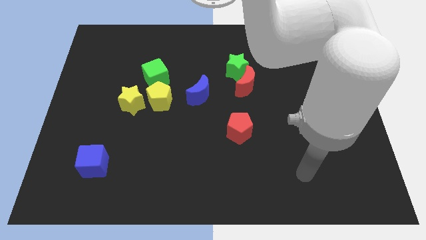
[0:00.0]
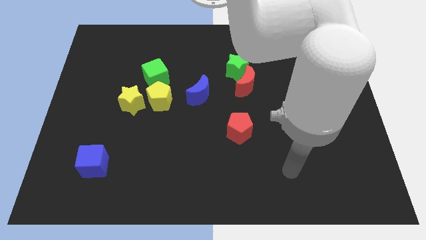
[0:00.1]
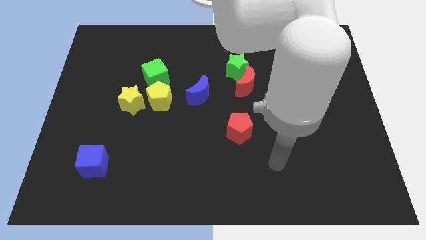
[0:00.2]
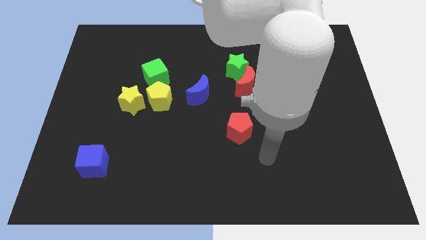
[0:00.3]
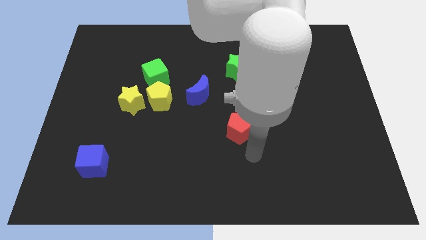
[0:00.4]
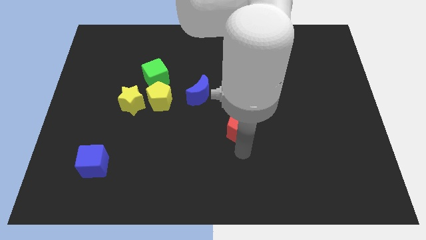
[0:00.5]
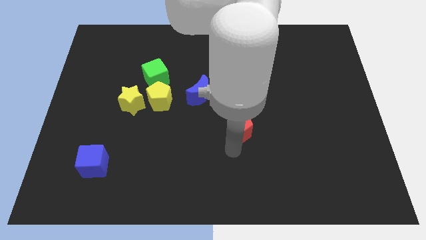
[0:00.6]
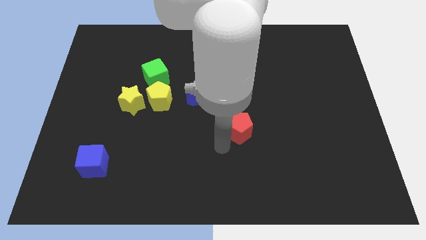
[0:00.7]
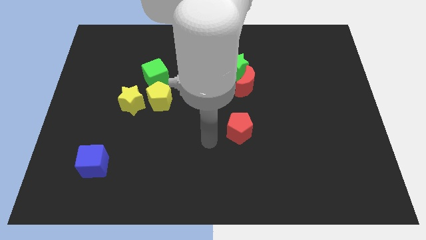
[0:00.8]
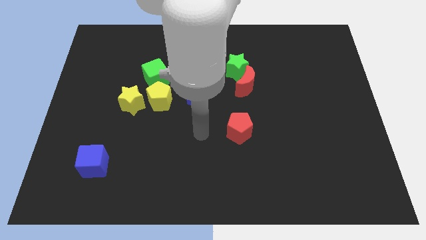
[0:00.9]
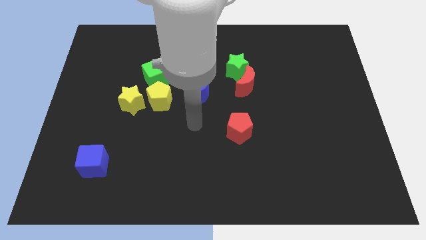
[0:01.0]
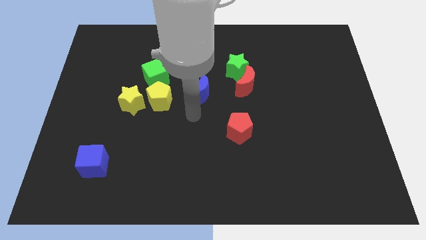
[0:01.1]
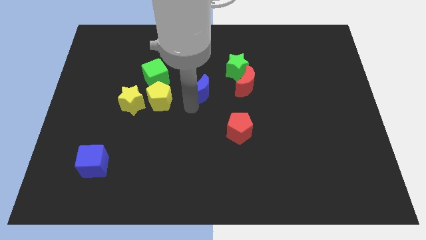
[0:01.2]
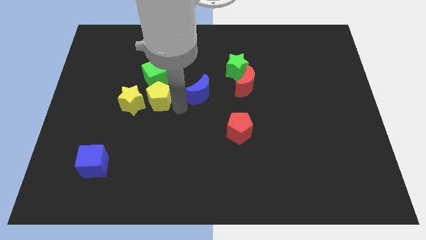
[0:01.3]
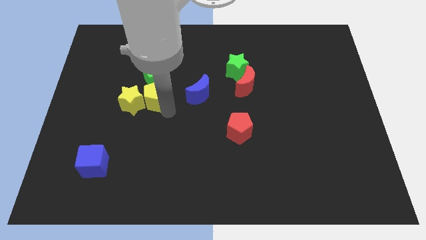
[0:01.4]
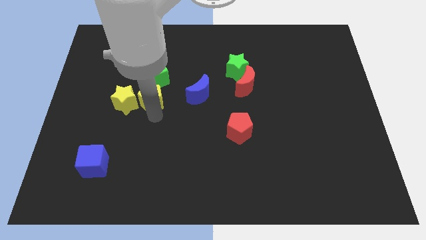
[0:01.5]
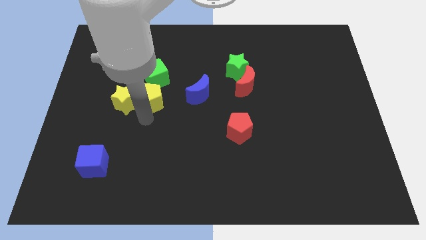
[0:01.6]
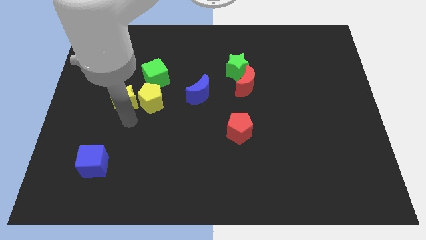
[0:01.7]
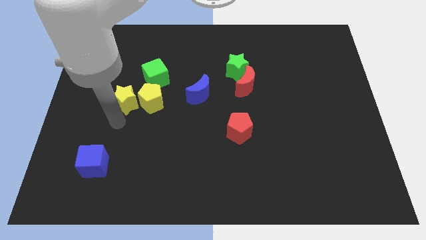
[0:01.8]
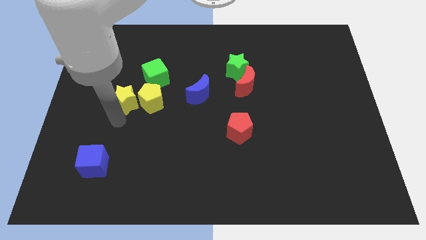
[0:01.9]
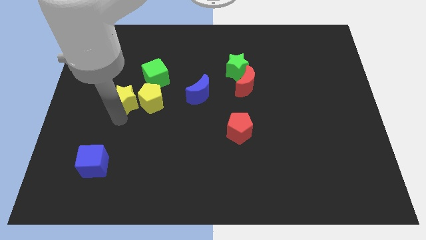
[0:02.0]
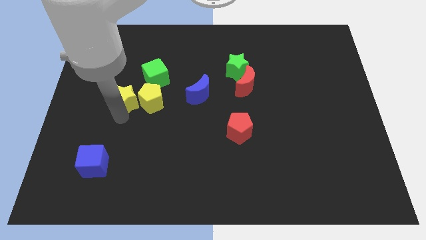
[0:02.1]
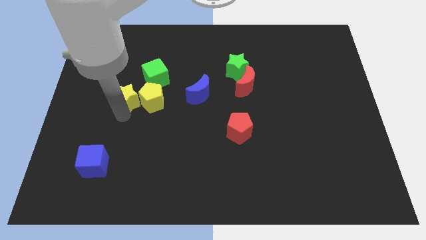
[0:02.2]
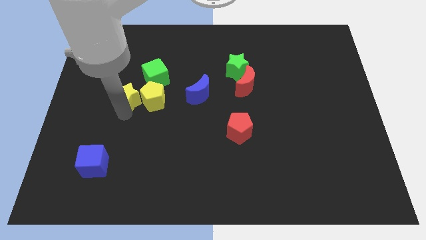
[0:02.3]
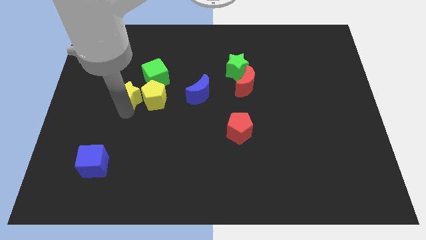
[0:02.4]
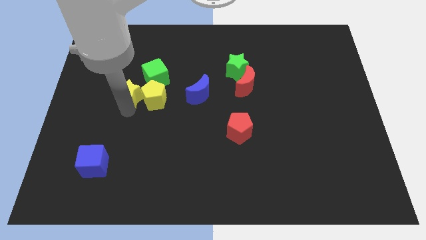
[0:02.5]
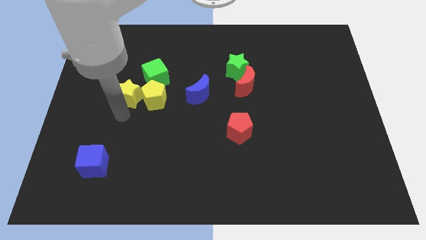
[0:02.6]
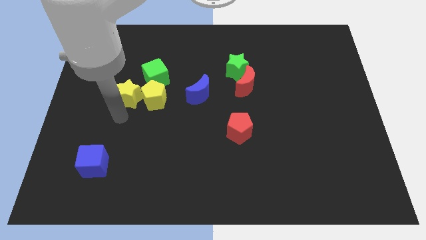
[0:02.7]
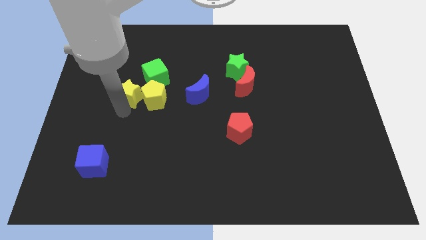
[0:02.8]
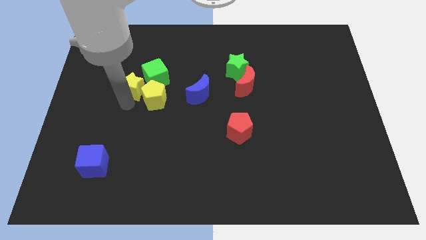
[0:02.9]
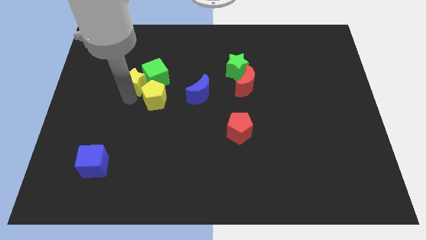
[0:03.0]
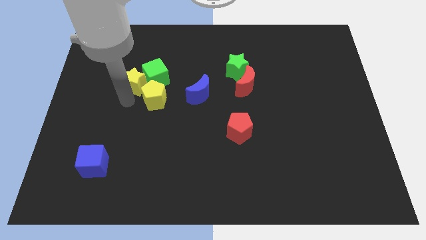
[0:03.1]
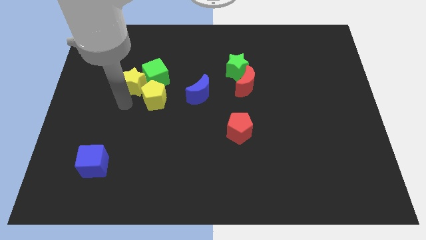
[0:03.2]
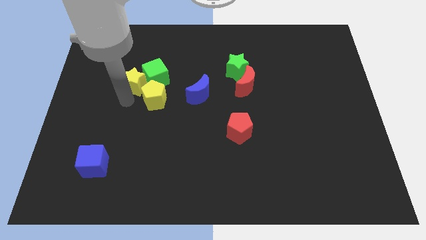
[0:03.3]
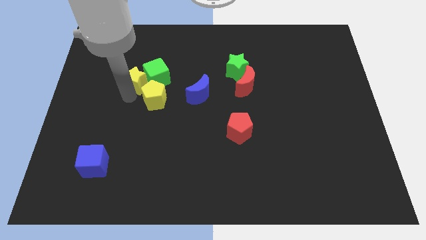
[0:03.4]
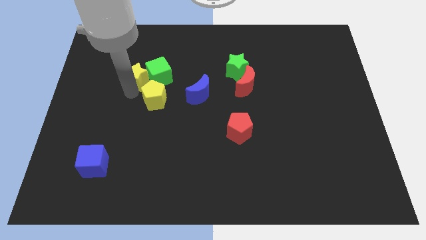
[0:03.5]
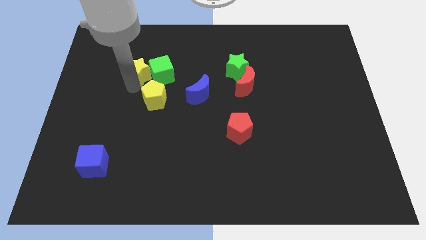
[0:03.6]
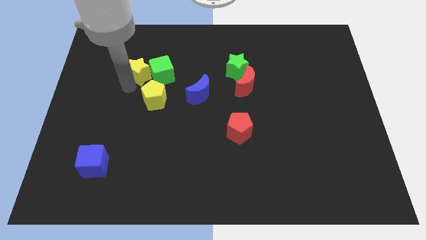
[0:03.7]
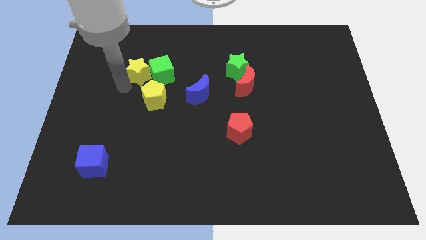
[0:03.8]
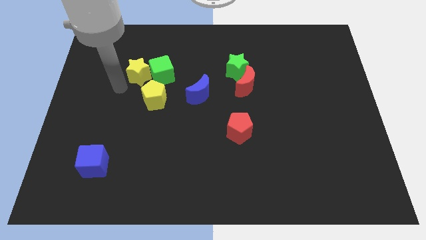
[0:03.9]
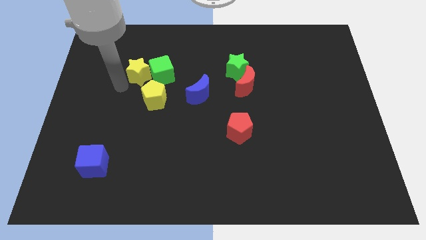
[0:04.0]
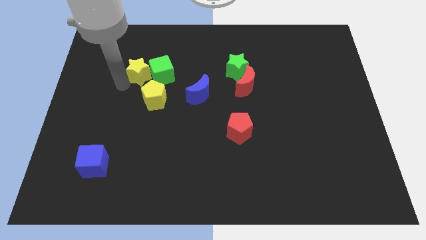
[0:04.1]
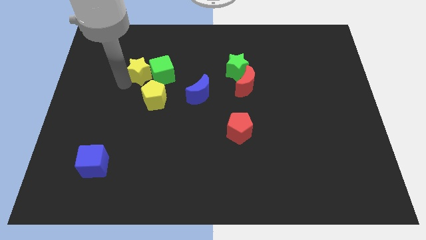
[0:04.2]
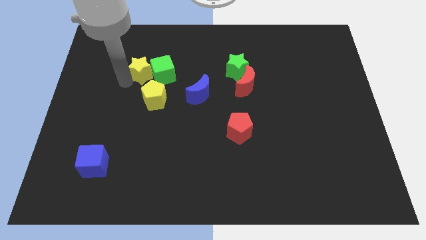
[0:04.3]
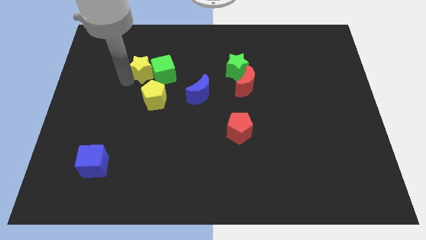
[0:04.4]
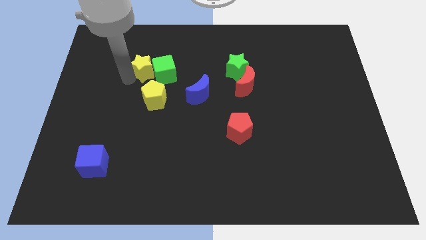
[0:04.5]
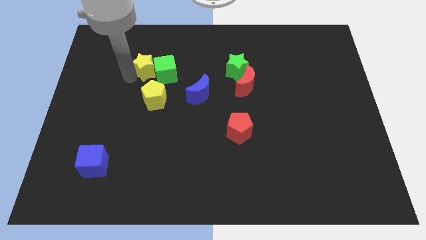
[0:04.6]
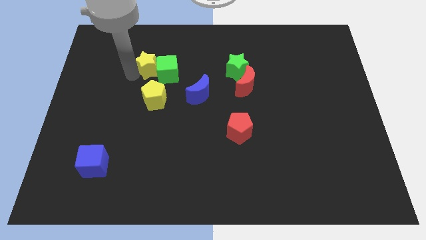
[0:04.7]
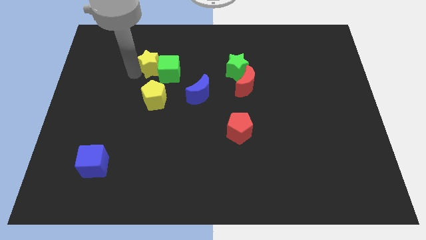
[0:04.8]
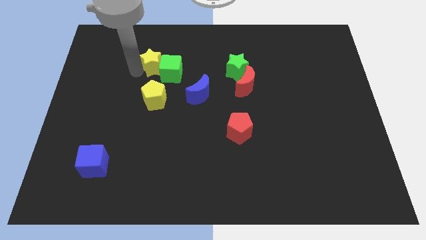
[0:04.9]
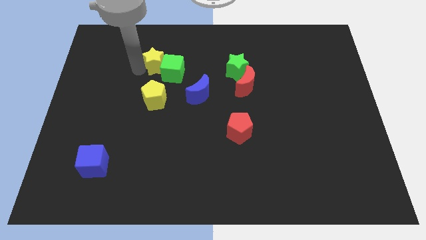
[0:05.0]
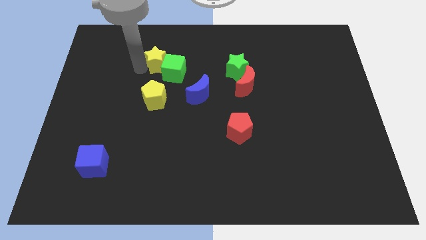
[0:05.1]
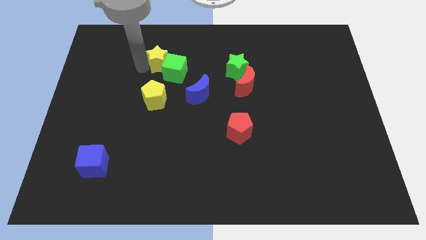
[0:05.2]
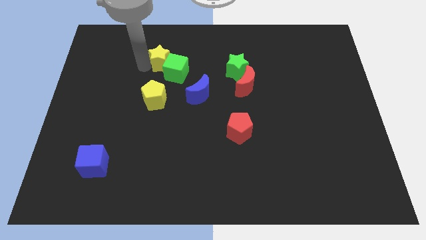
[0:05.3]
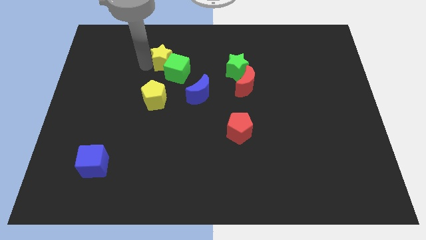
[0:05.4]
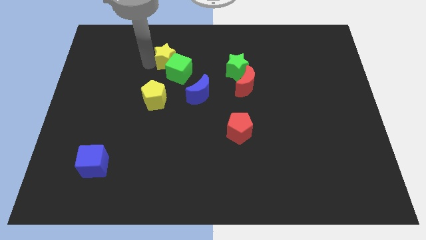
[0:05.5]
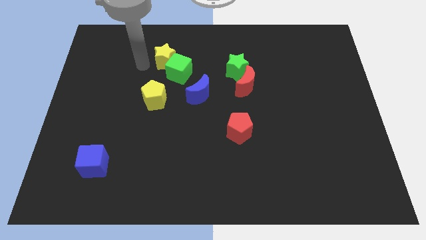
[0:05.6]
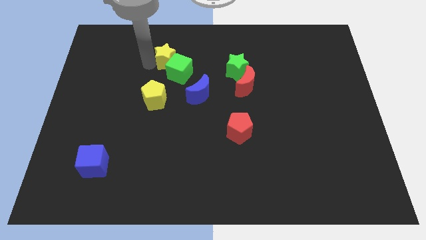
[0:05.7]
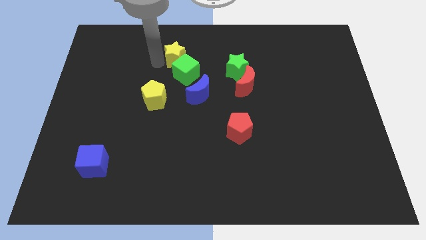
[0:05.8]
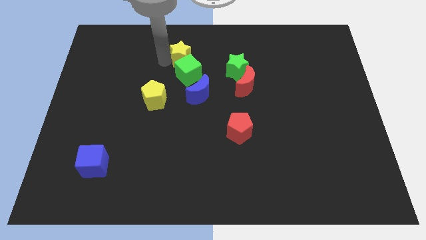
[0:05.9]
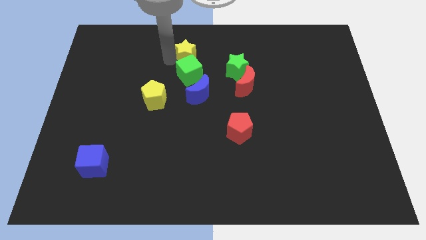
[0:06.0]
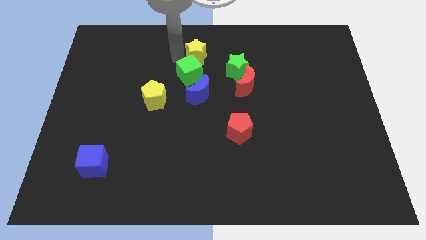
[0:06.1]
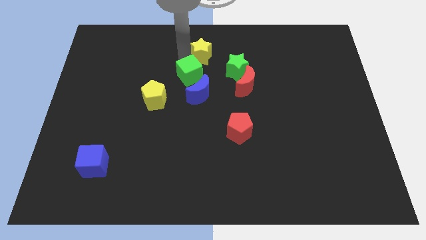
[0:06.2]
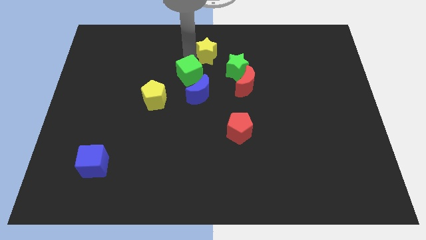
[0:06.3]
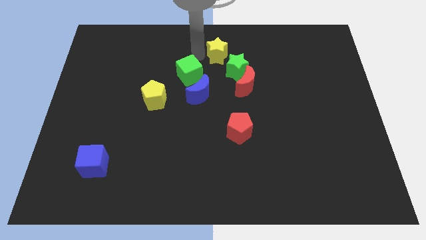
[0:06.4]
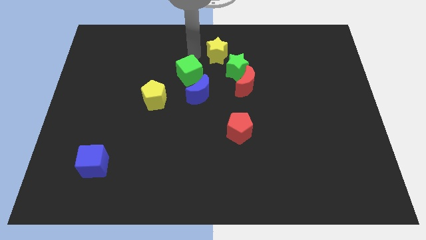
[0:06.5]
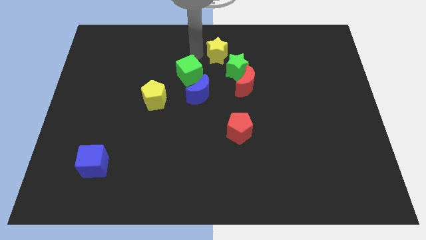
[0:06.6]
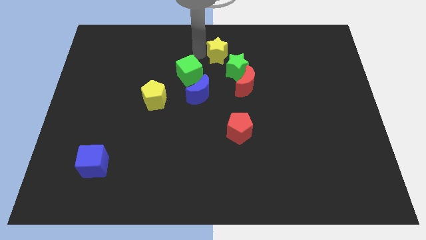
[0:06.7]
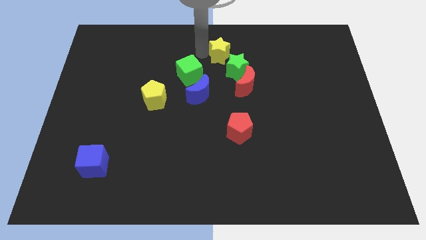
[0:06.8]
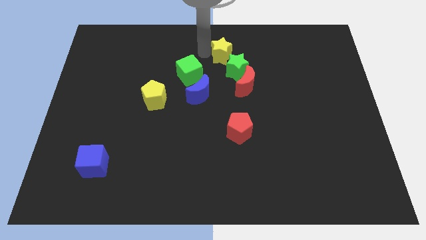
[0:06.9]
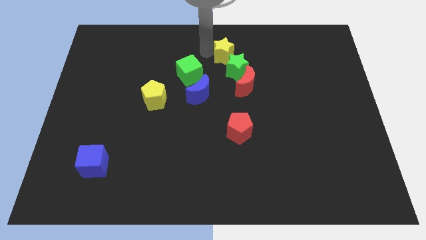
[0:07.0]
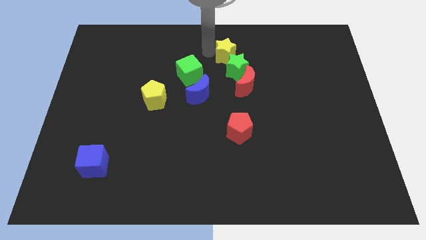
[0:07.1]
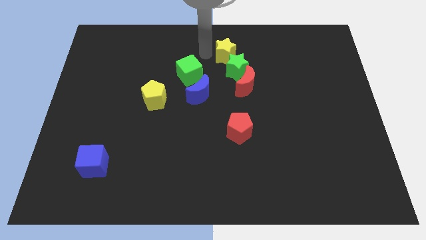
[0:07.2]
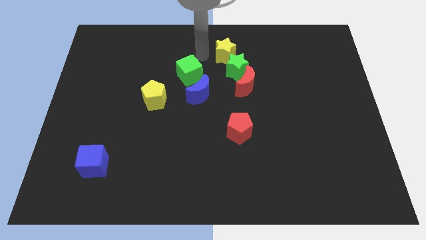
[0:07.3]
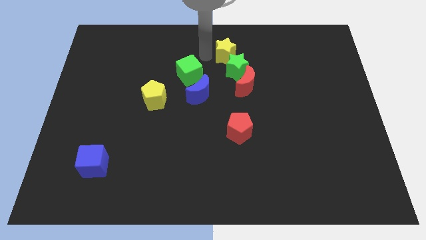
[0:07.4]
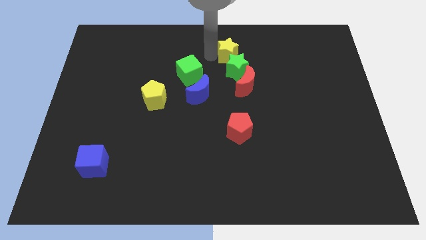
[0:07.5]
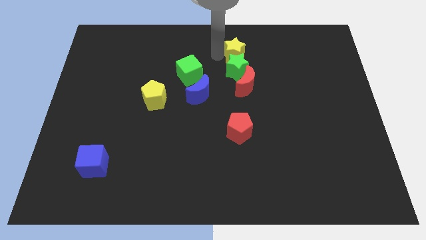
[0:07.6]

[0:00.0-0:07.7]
put the yellow star to the top right side of the green star
